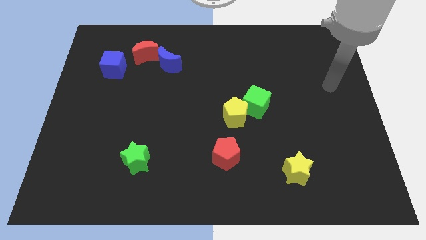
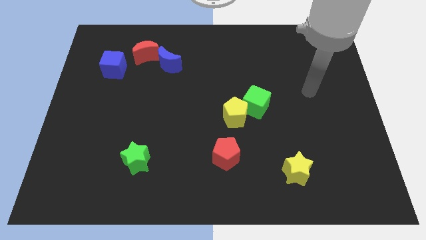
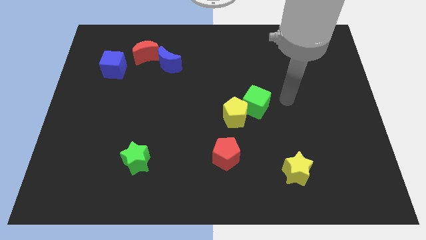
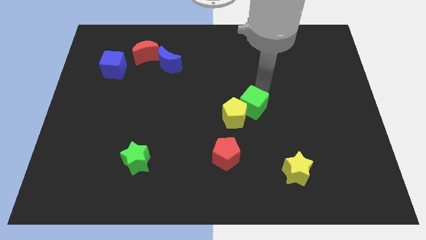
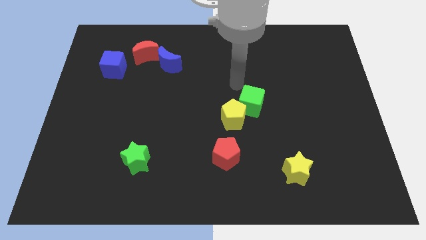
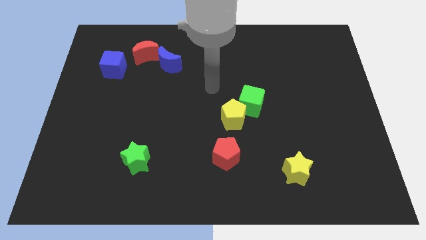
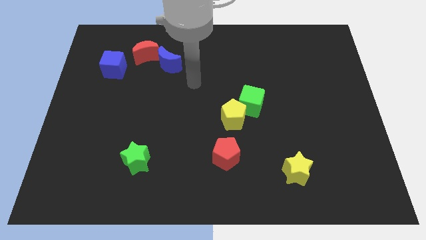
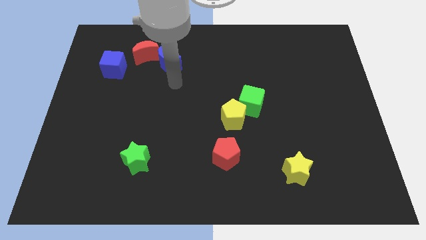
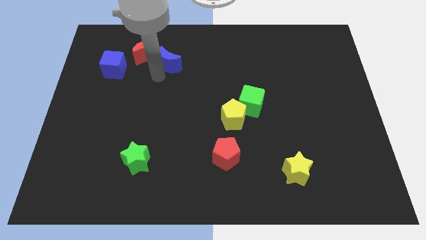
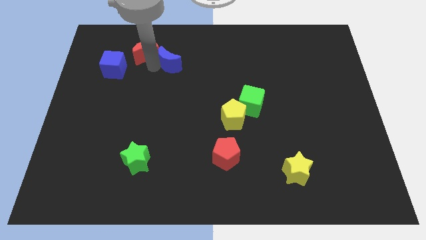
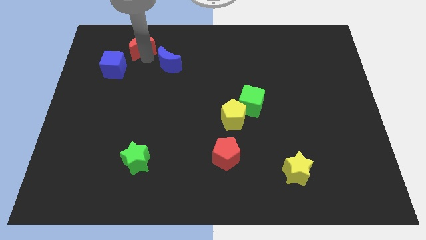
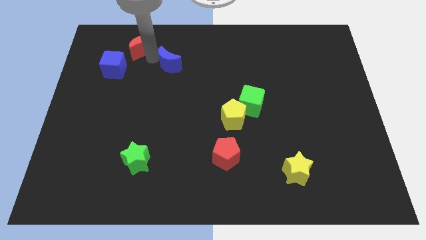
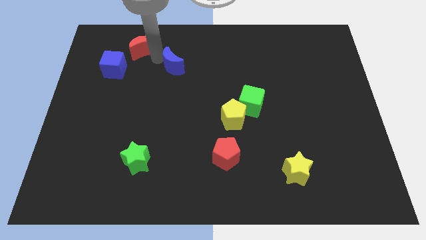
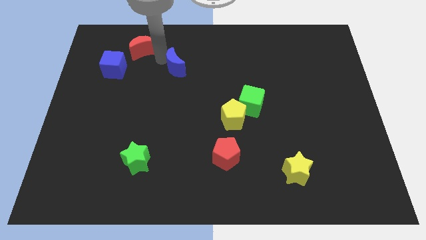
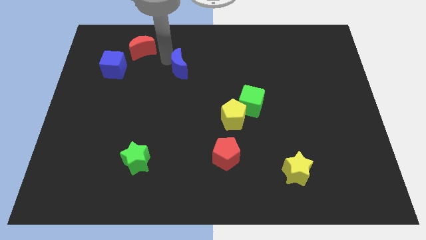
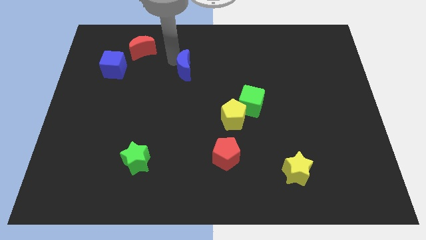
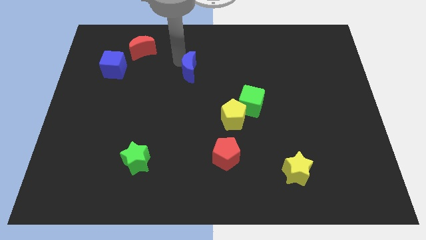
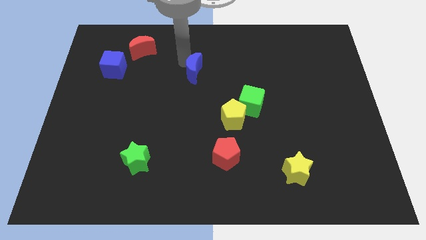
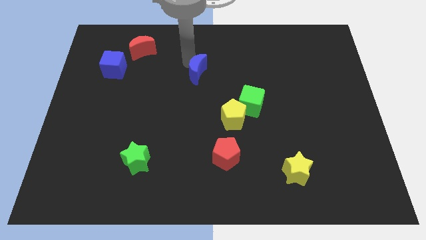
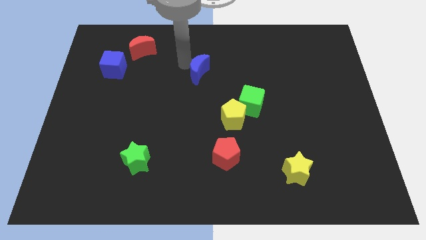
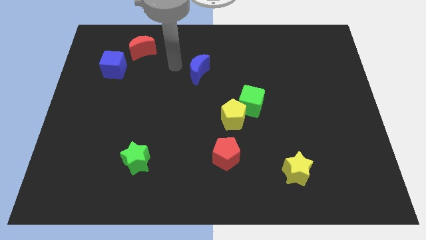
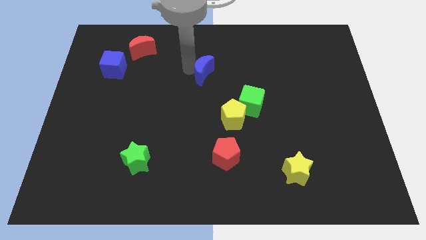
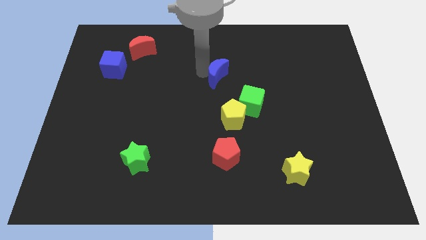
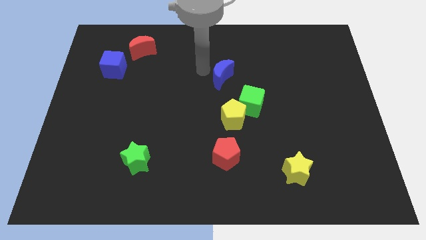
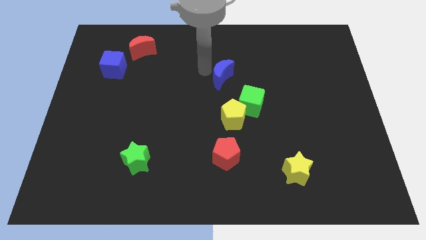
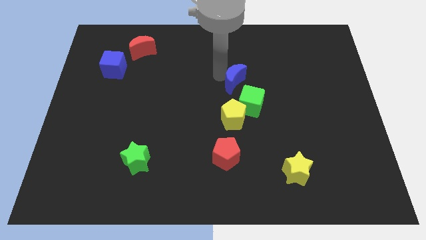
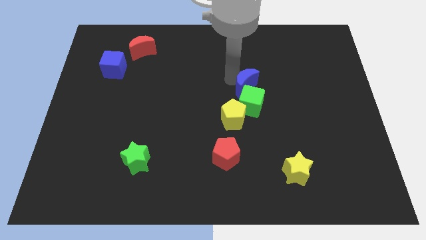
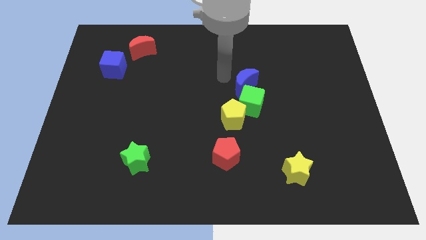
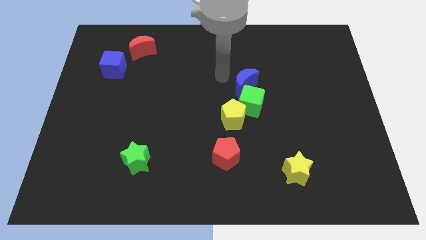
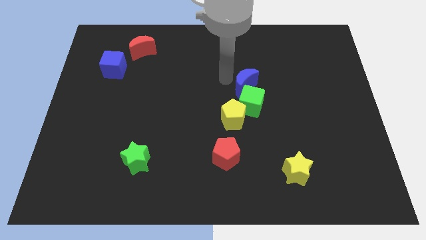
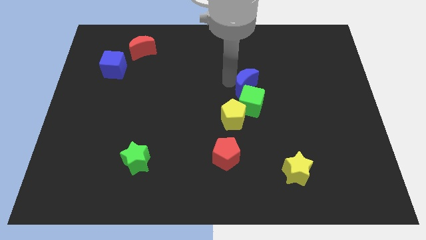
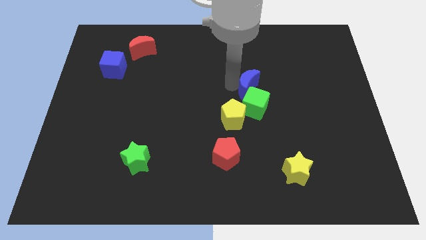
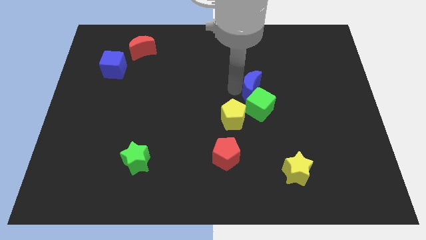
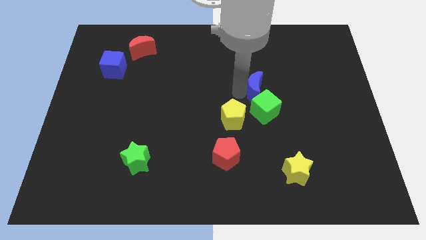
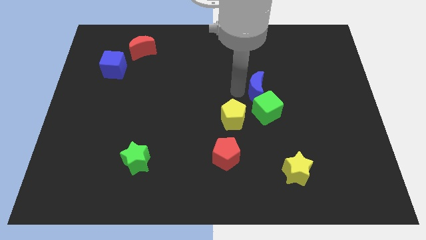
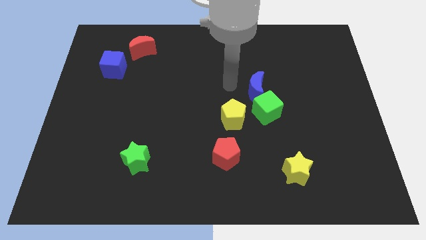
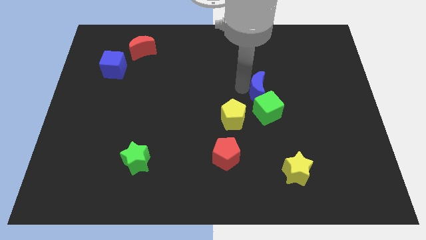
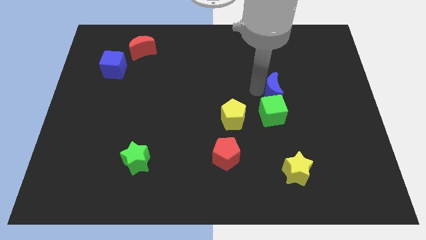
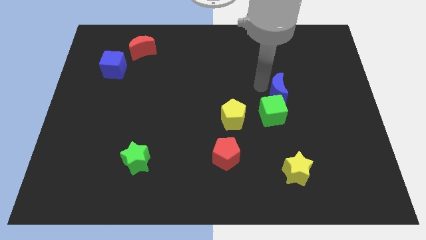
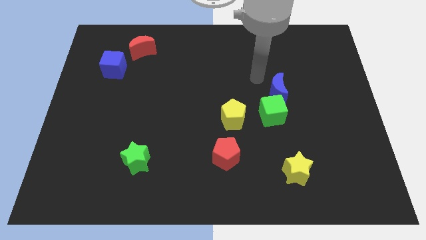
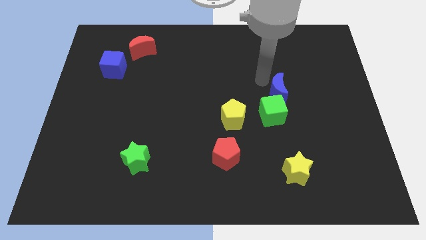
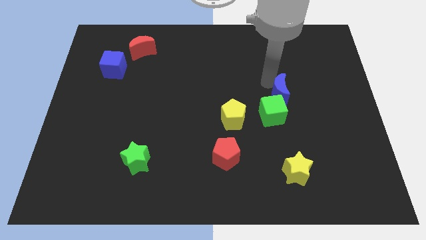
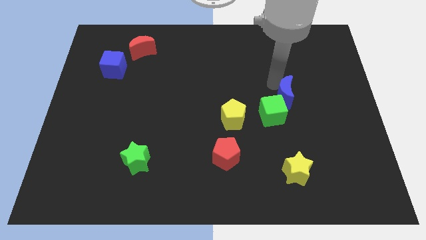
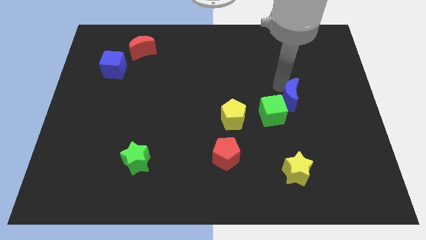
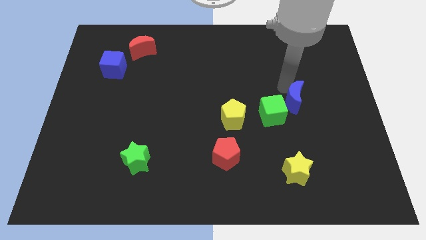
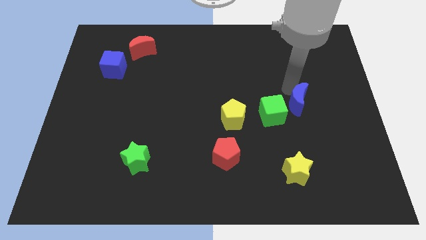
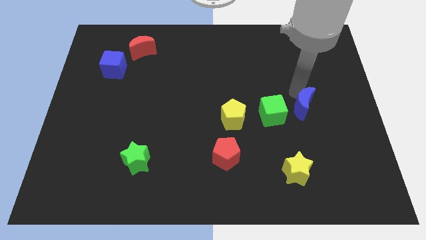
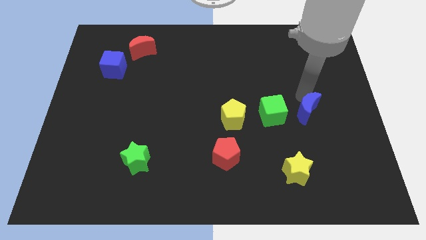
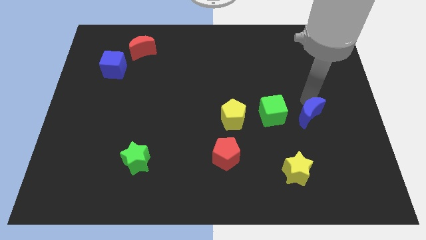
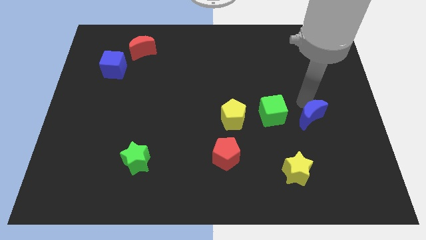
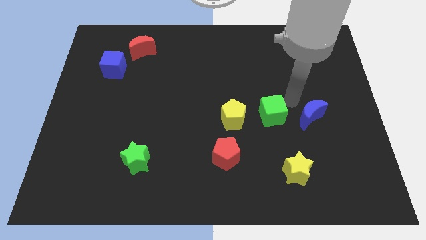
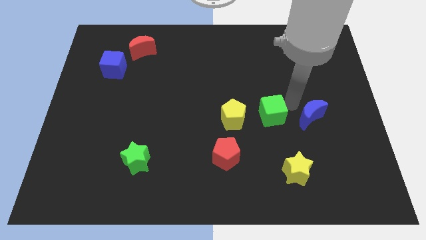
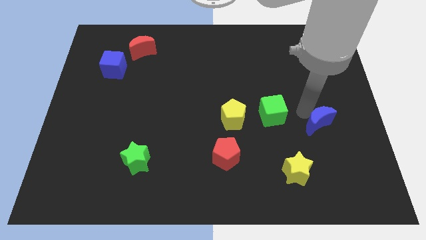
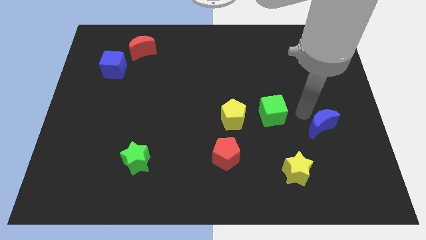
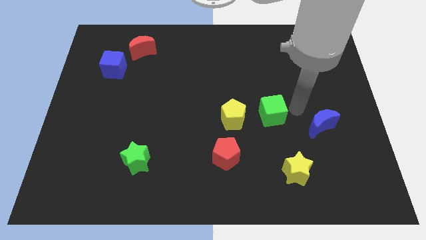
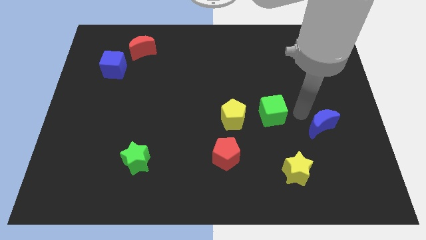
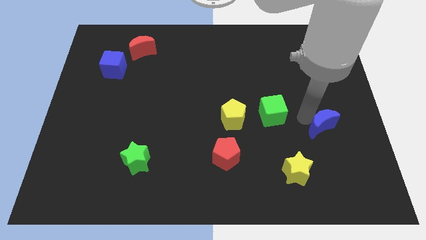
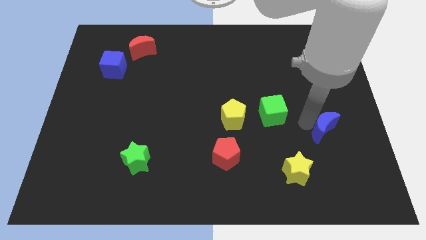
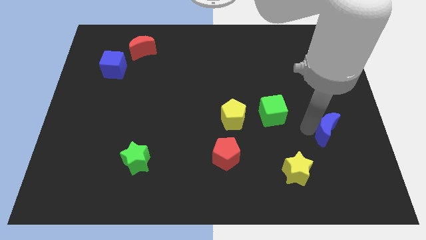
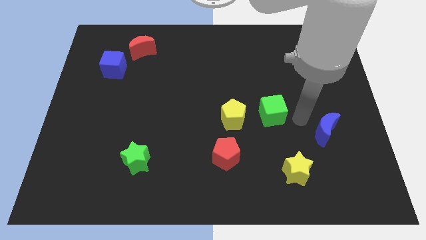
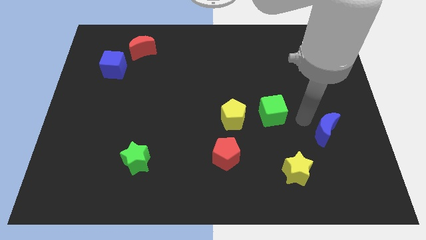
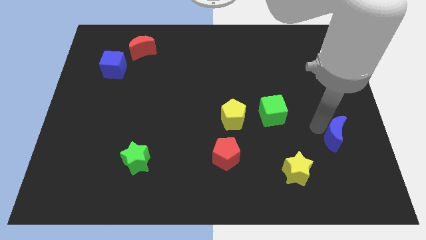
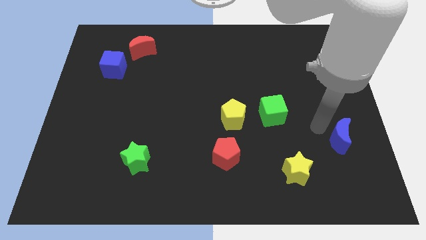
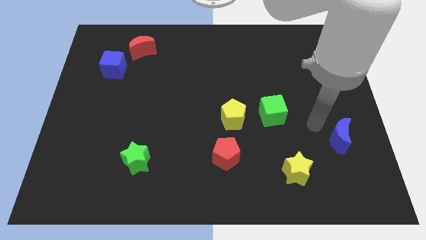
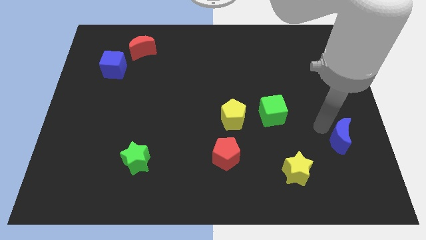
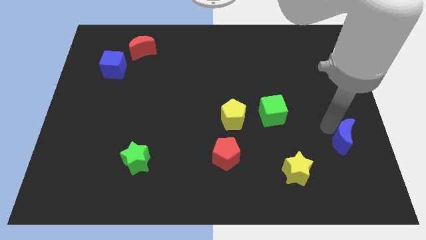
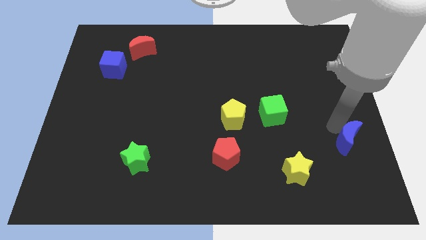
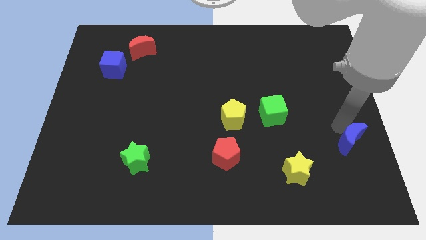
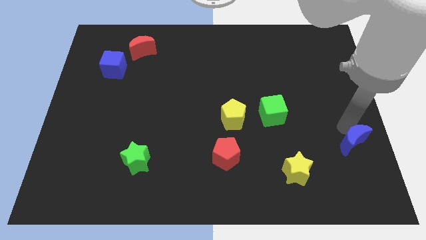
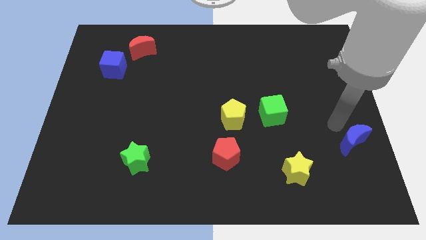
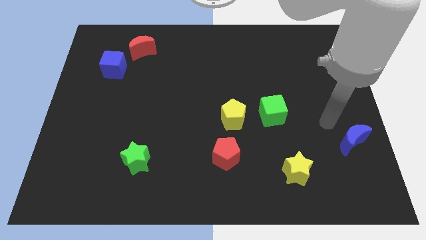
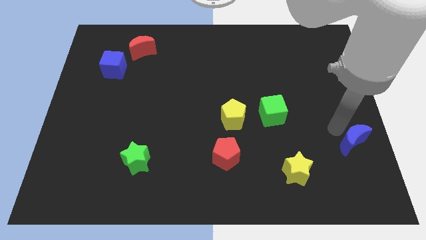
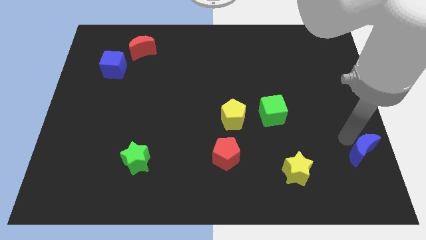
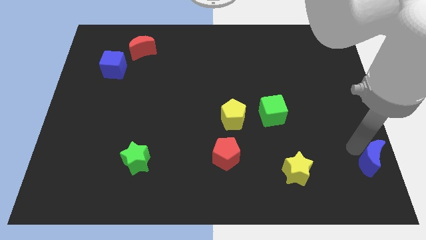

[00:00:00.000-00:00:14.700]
put the blue moon to the bottom right corner
